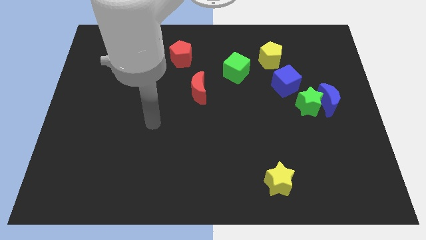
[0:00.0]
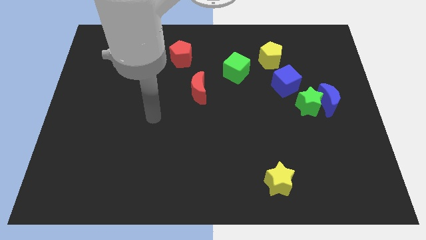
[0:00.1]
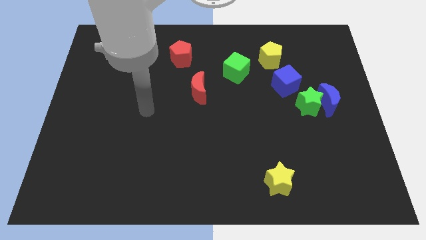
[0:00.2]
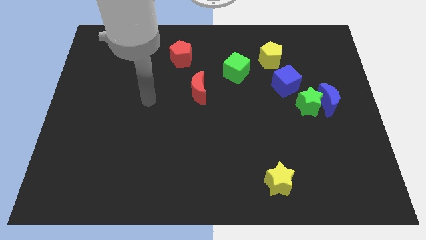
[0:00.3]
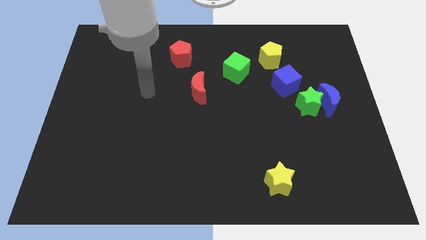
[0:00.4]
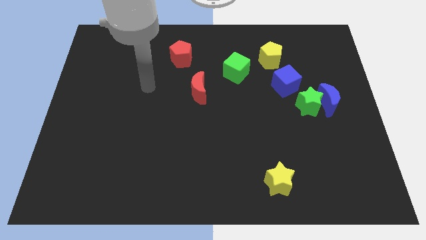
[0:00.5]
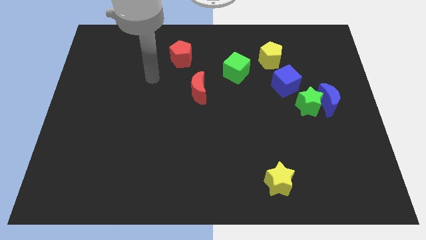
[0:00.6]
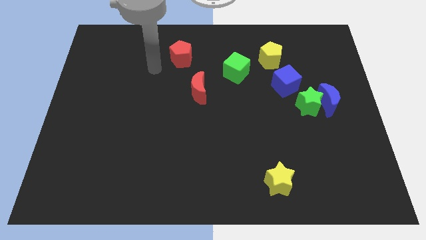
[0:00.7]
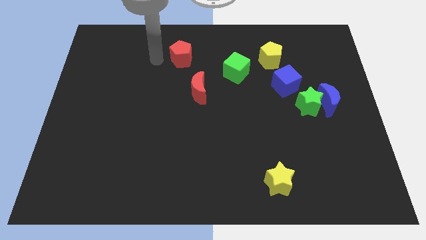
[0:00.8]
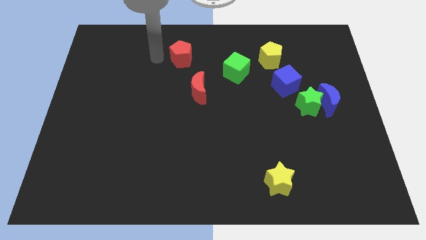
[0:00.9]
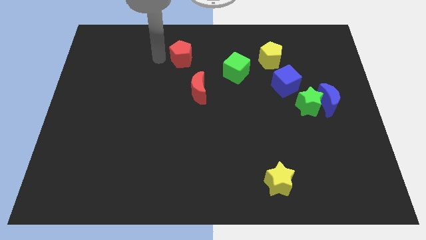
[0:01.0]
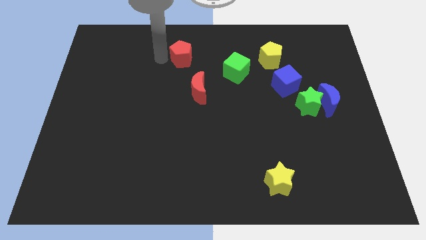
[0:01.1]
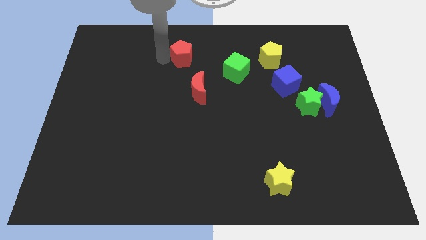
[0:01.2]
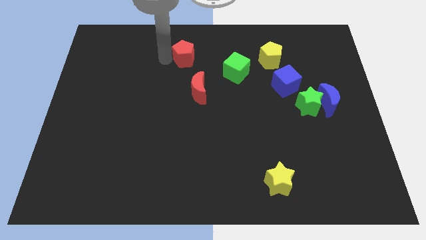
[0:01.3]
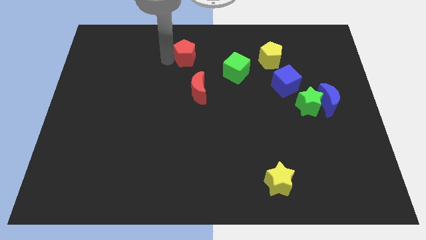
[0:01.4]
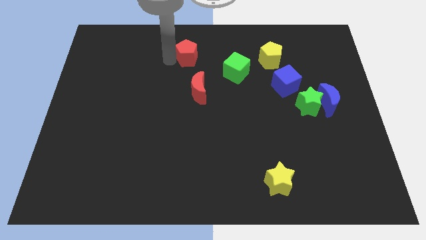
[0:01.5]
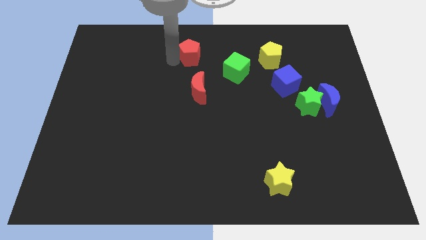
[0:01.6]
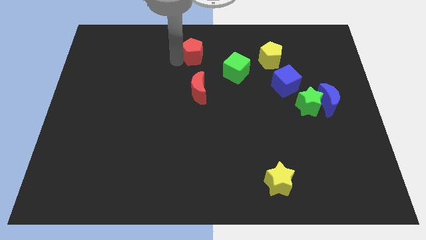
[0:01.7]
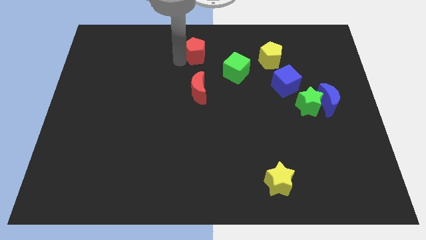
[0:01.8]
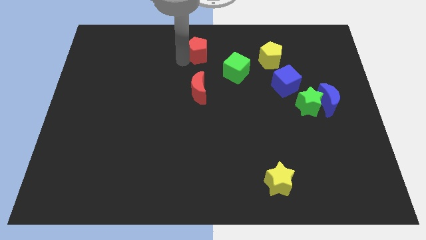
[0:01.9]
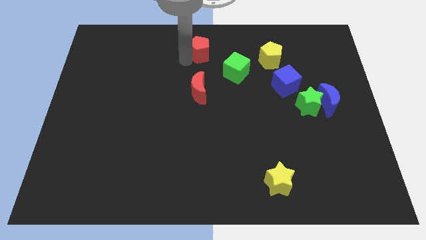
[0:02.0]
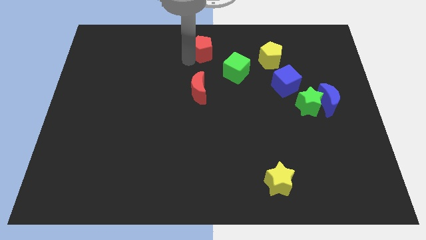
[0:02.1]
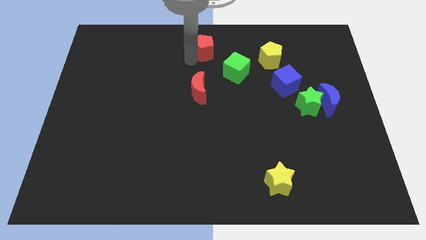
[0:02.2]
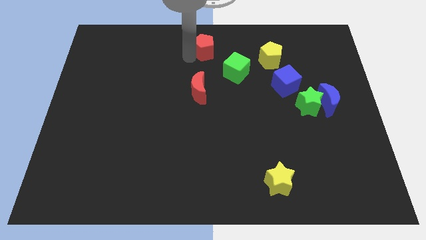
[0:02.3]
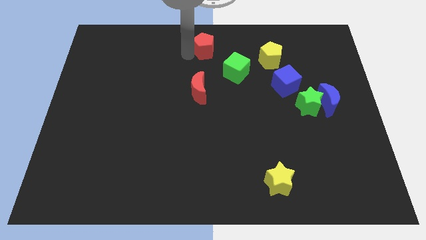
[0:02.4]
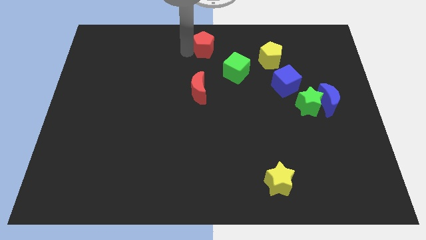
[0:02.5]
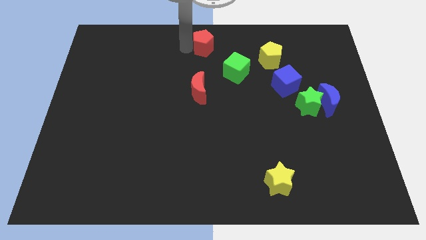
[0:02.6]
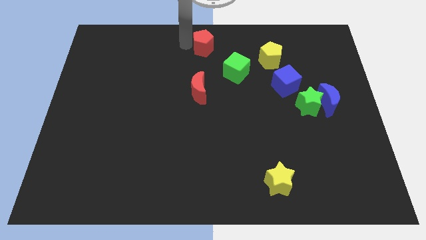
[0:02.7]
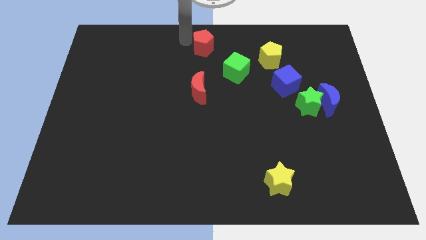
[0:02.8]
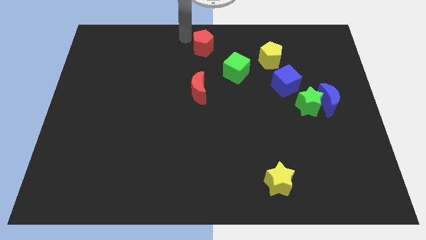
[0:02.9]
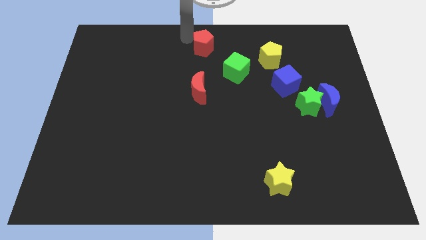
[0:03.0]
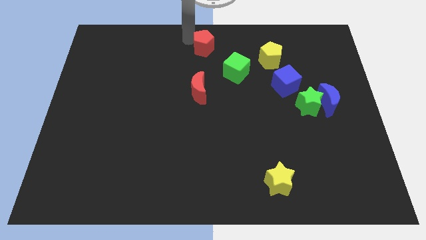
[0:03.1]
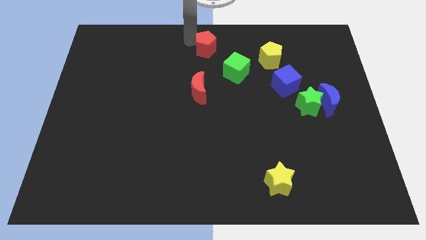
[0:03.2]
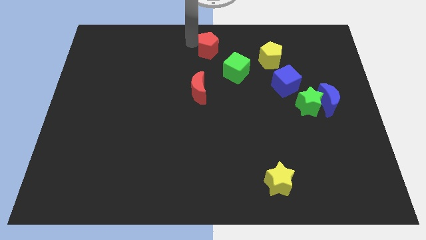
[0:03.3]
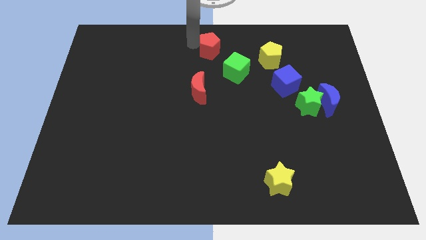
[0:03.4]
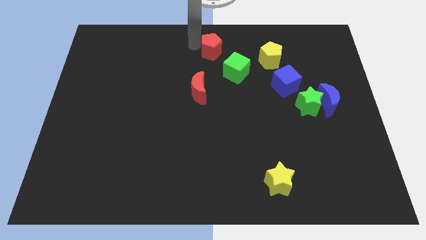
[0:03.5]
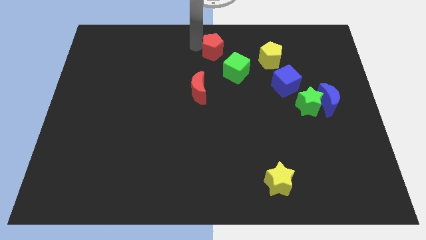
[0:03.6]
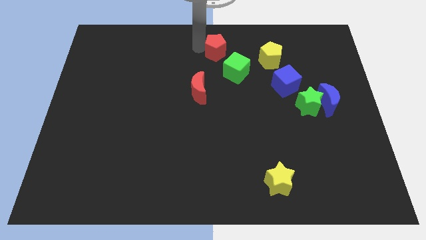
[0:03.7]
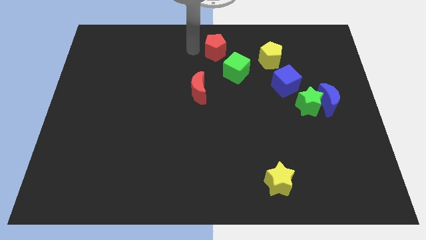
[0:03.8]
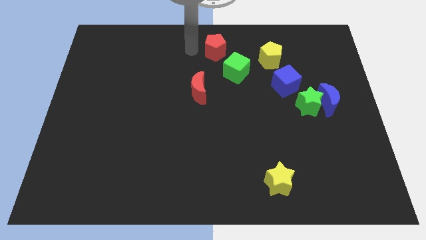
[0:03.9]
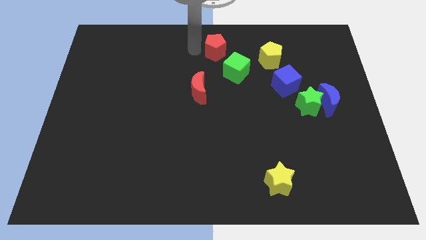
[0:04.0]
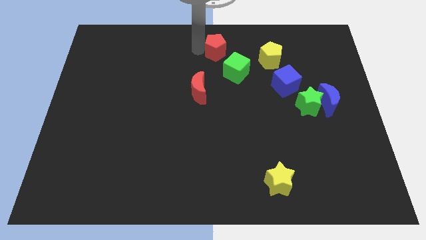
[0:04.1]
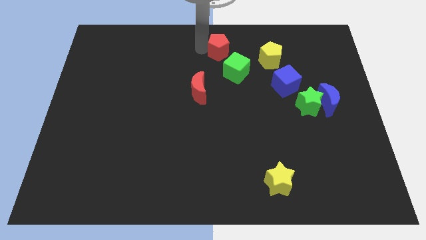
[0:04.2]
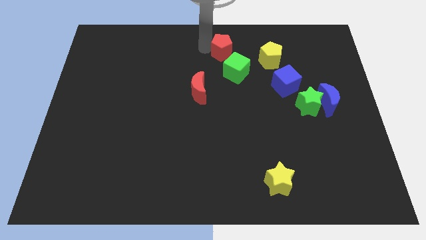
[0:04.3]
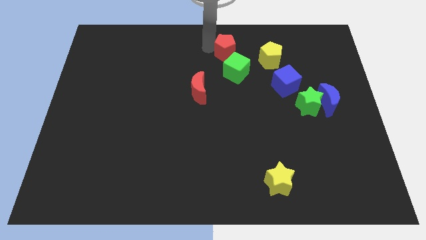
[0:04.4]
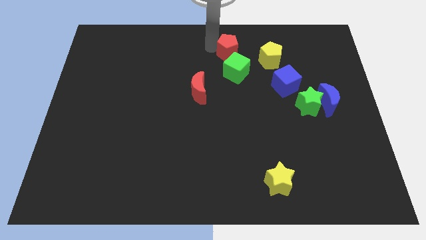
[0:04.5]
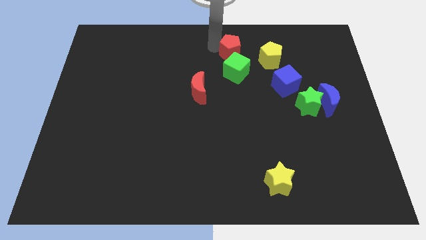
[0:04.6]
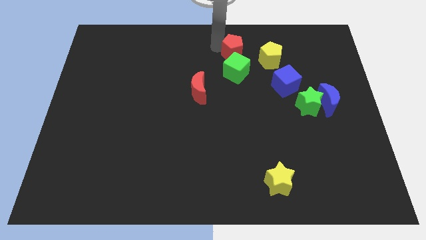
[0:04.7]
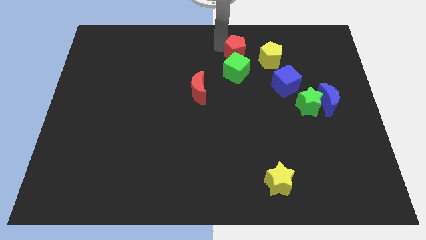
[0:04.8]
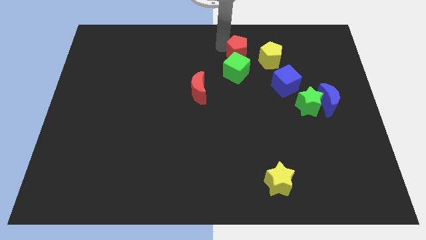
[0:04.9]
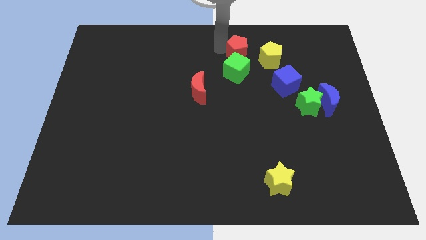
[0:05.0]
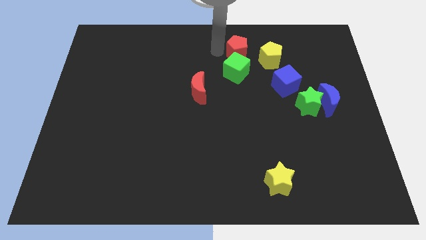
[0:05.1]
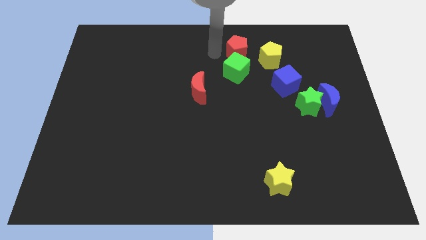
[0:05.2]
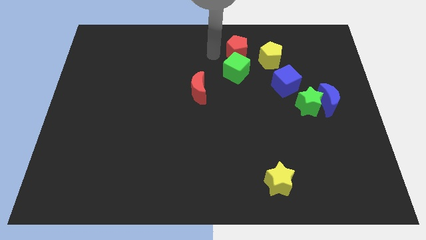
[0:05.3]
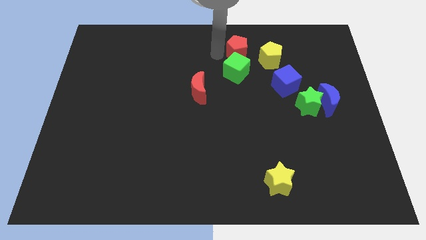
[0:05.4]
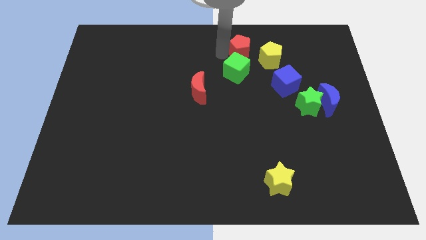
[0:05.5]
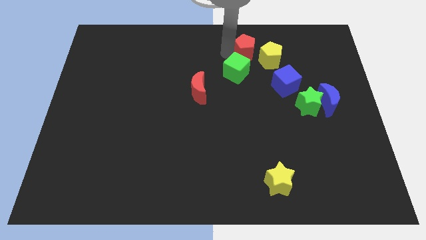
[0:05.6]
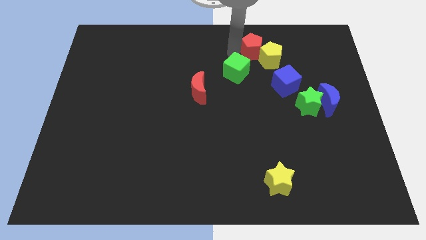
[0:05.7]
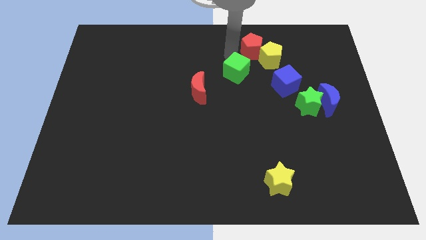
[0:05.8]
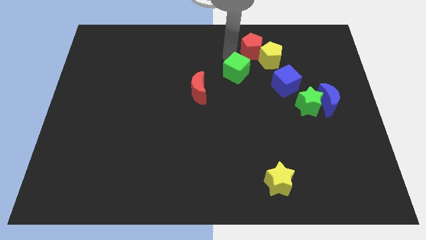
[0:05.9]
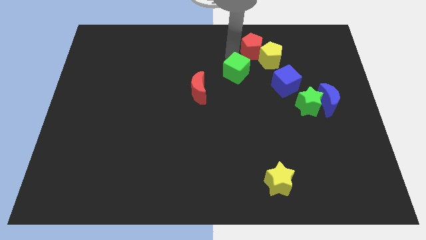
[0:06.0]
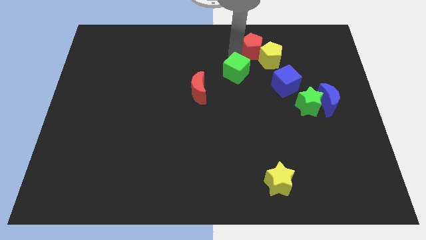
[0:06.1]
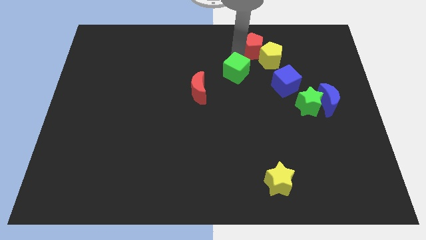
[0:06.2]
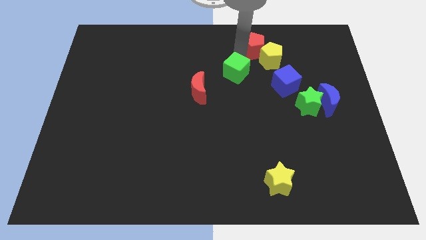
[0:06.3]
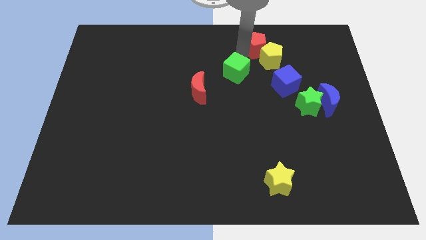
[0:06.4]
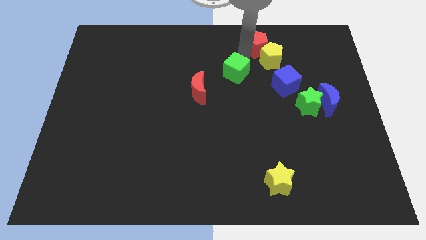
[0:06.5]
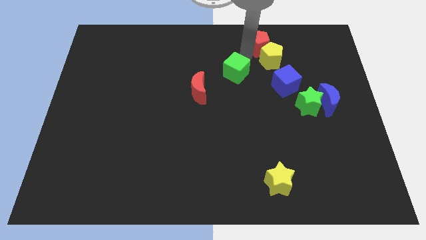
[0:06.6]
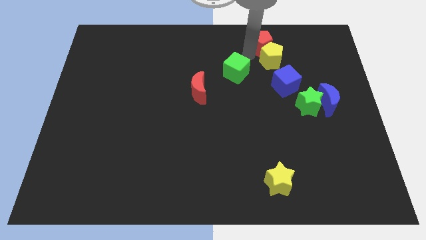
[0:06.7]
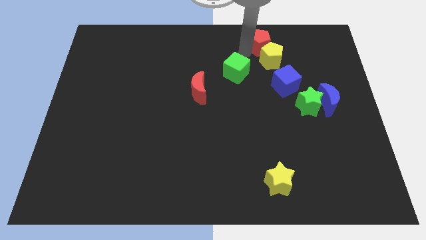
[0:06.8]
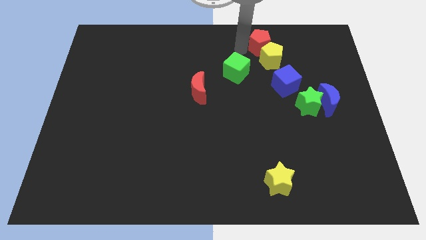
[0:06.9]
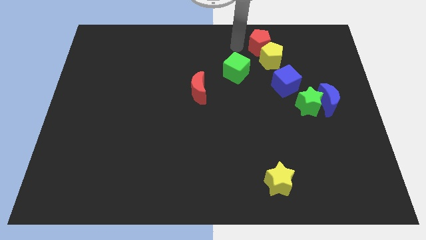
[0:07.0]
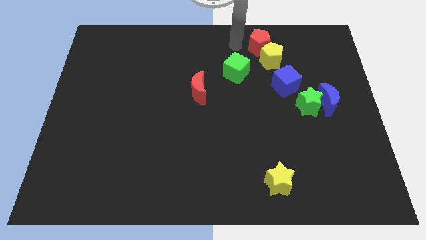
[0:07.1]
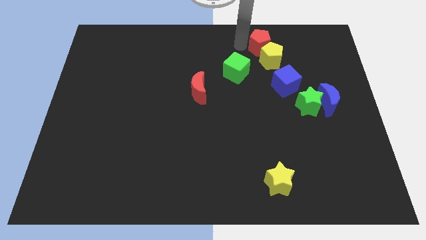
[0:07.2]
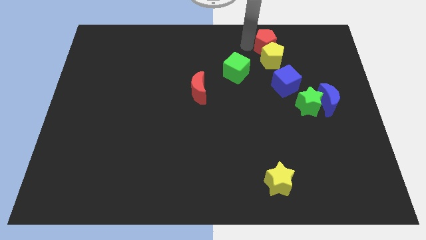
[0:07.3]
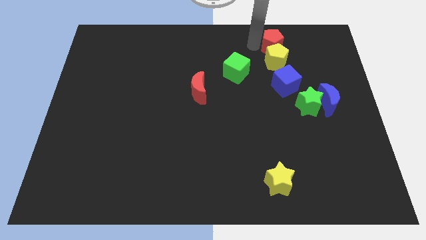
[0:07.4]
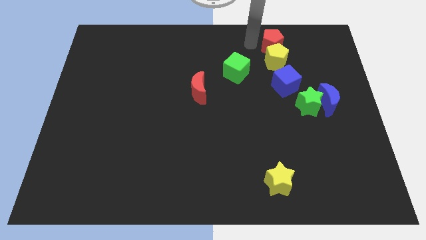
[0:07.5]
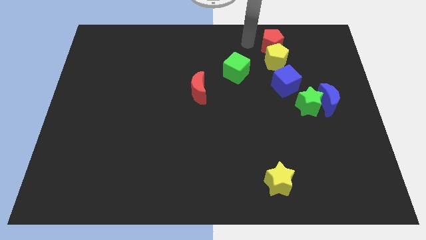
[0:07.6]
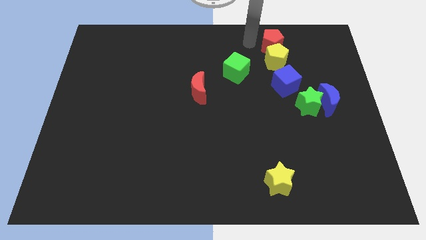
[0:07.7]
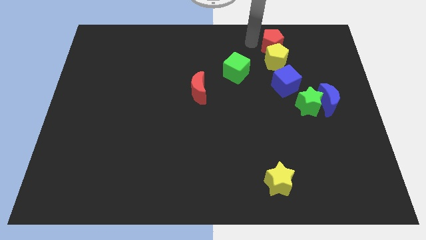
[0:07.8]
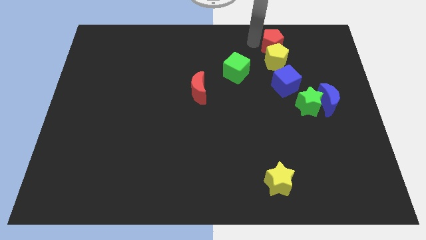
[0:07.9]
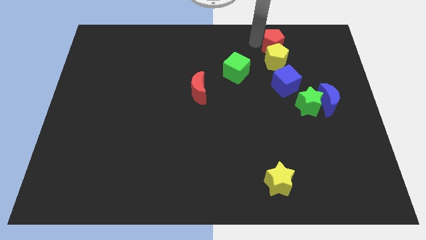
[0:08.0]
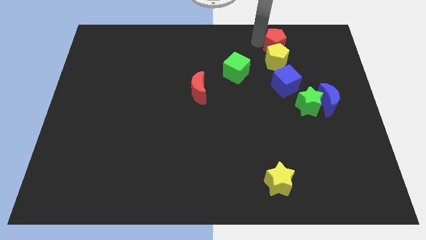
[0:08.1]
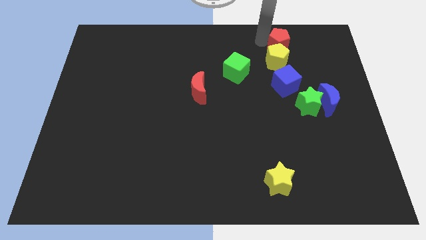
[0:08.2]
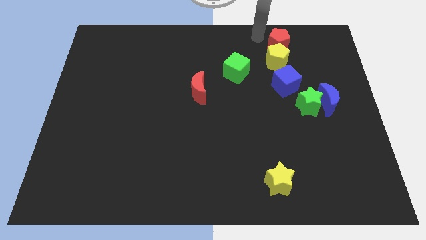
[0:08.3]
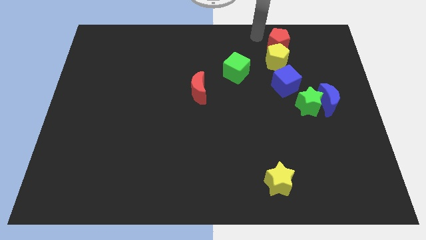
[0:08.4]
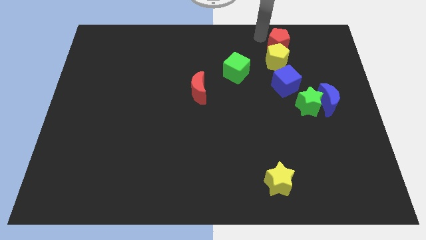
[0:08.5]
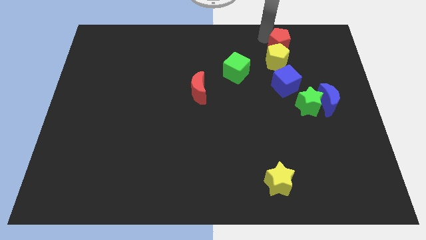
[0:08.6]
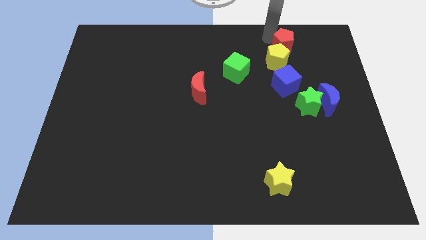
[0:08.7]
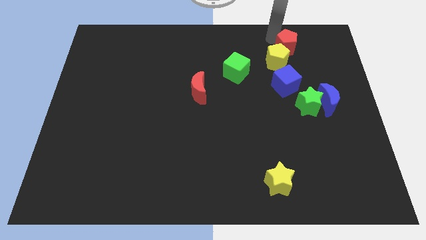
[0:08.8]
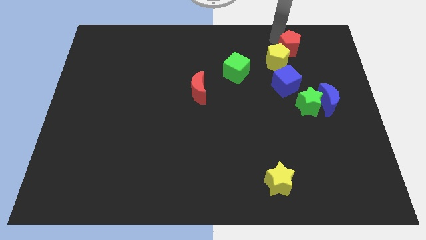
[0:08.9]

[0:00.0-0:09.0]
slide the red pentagon right of the yellow pentagon
